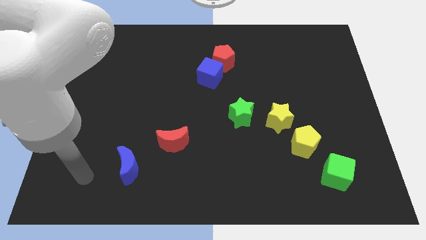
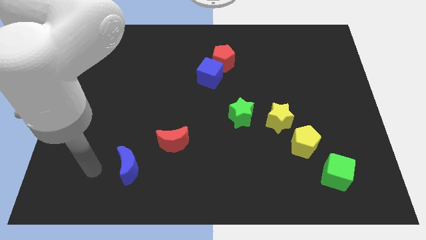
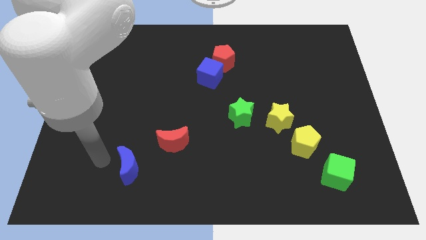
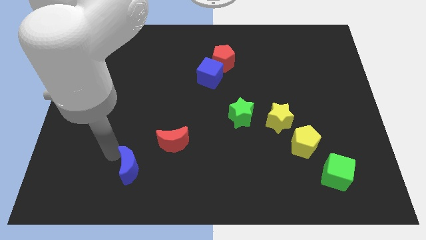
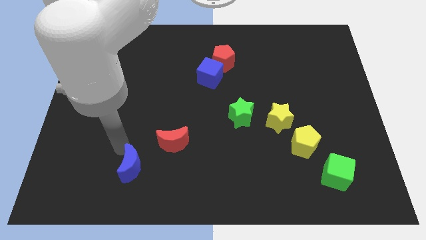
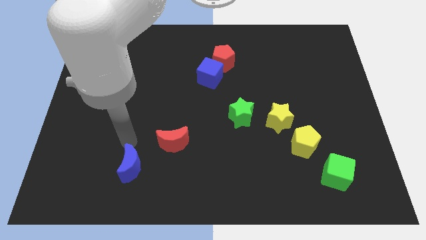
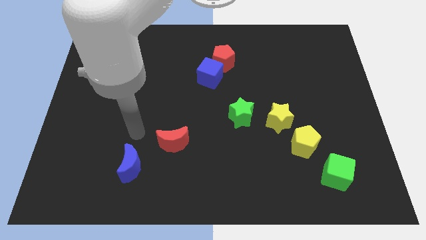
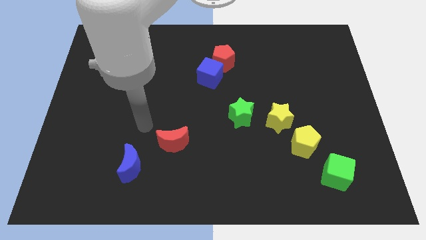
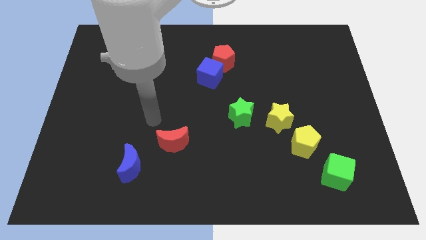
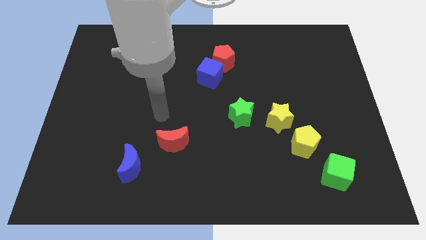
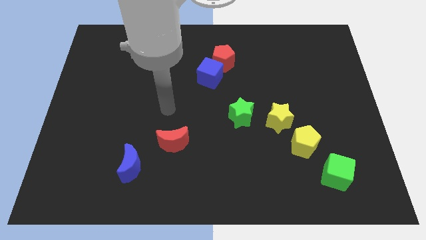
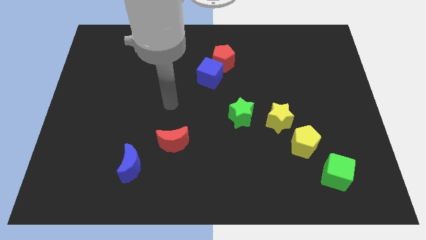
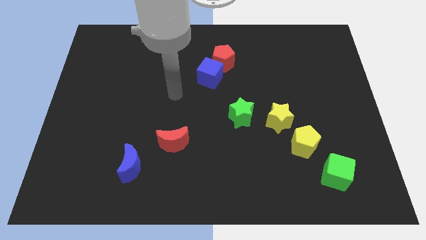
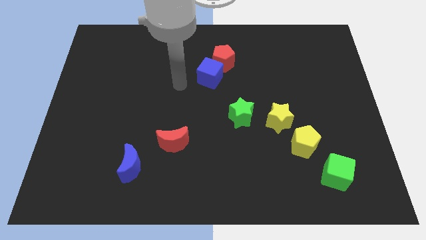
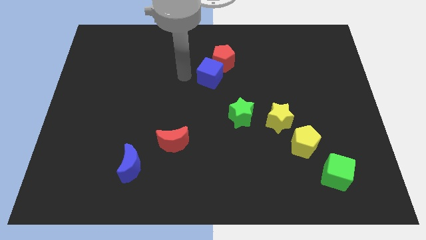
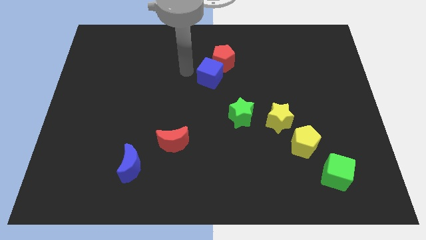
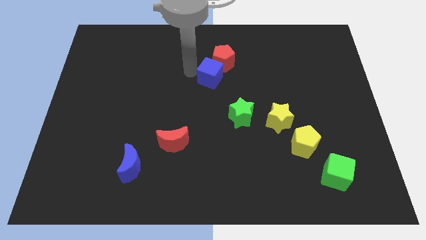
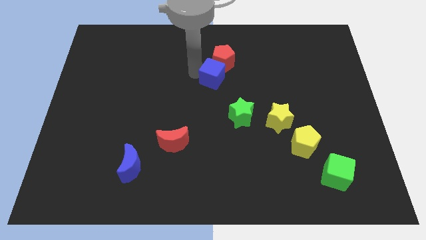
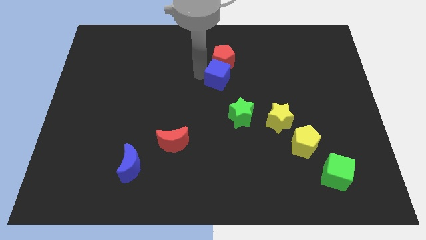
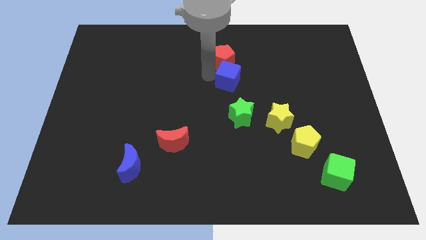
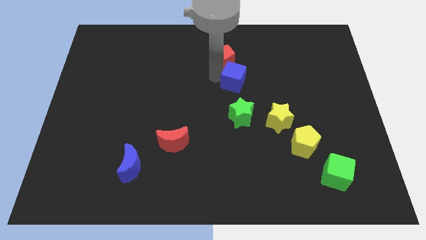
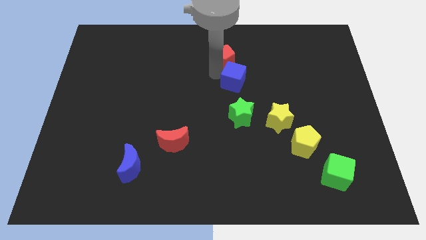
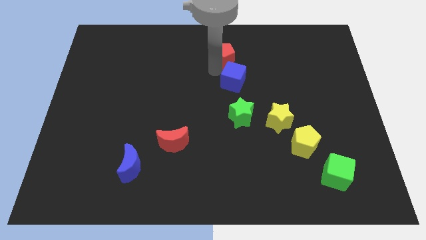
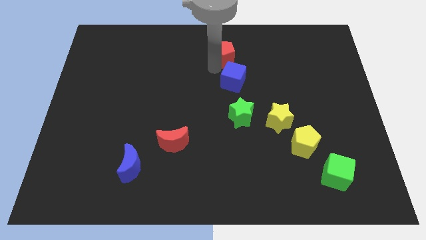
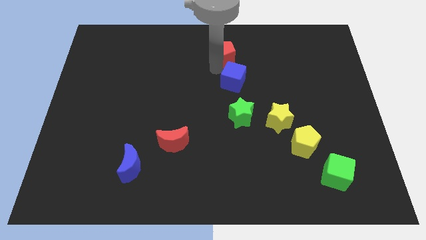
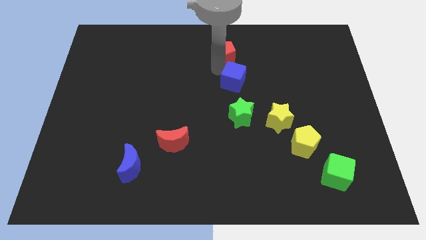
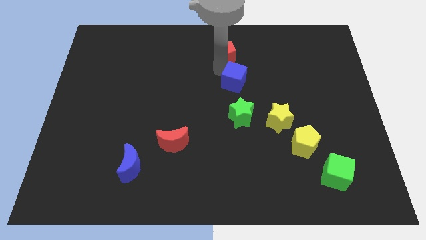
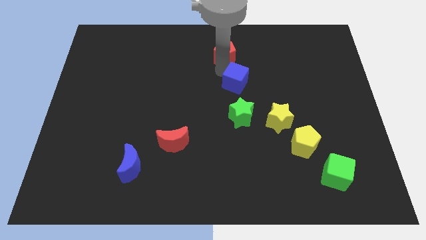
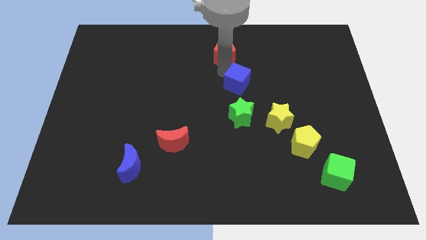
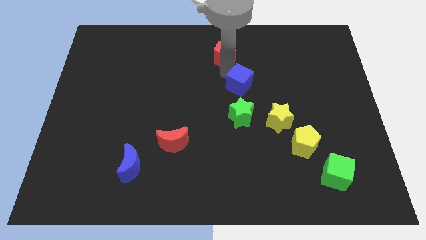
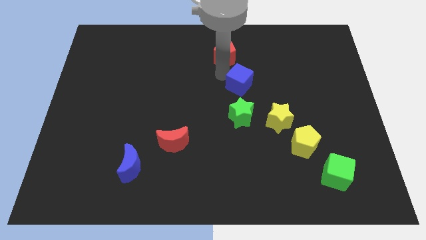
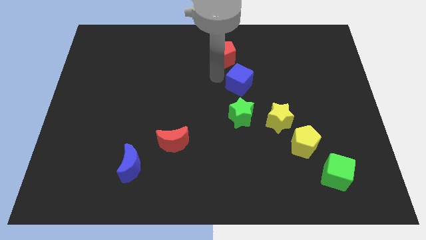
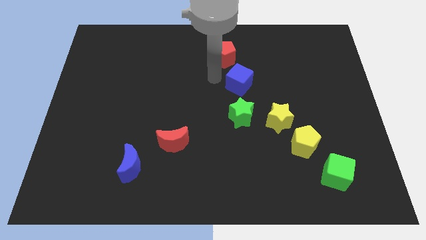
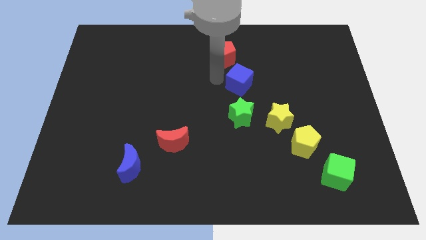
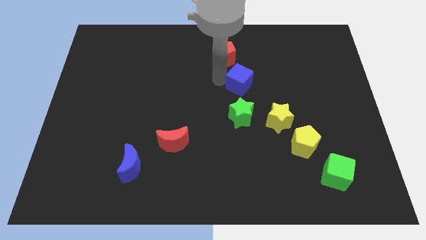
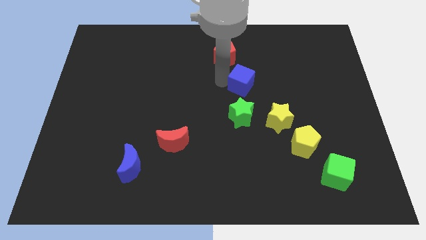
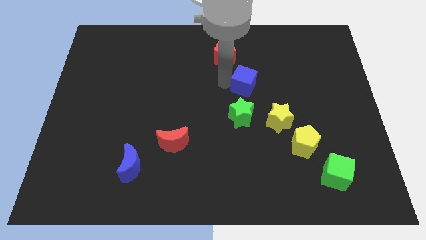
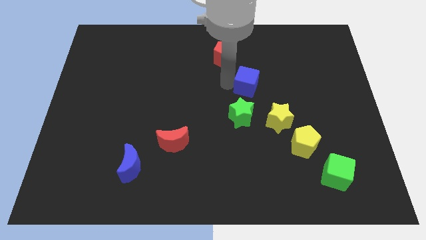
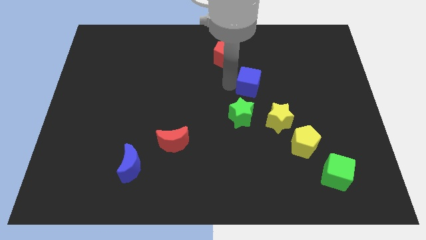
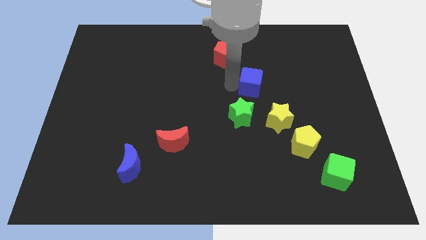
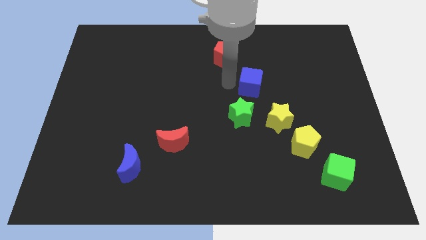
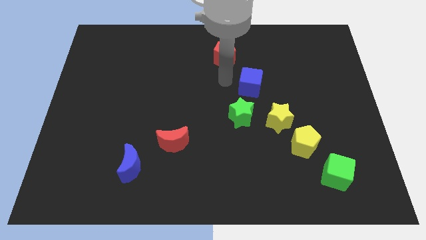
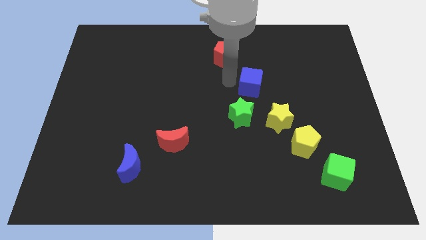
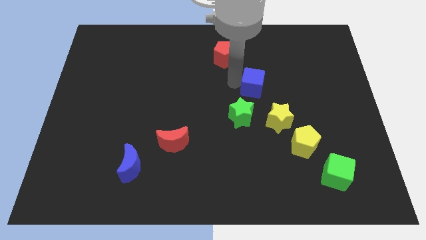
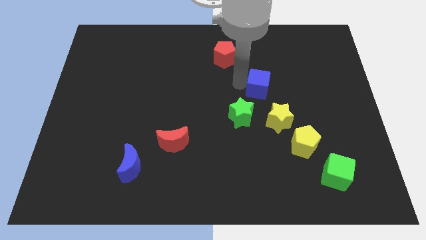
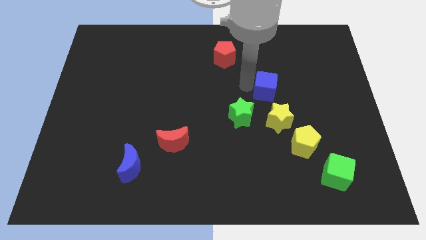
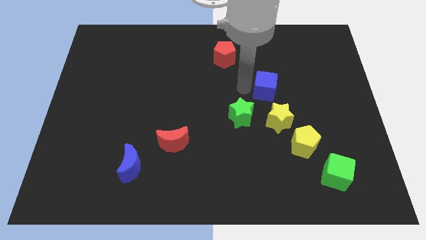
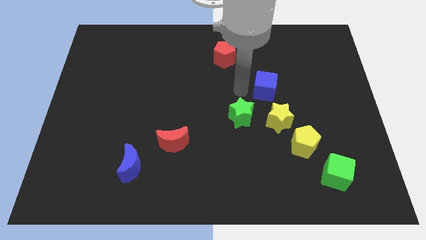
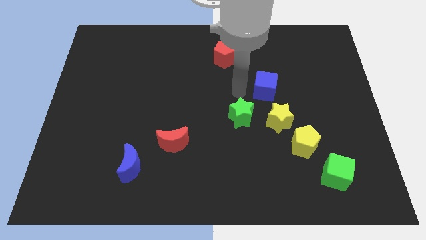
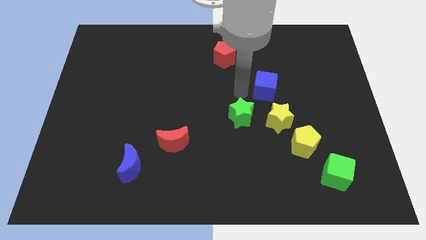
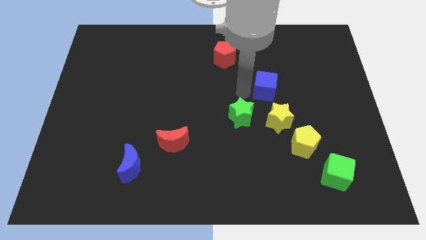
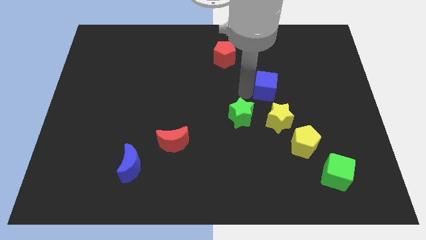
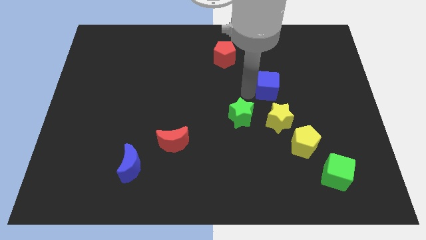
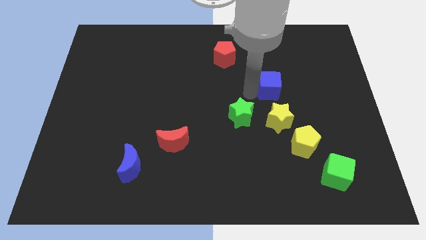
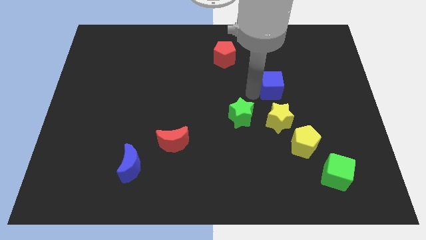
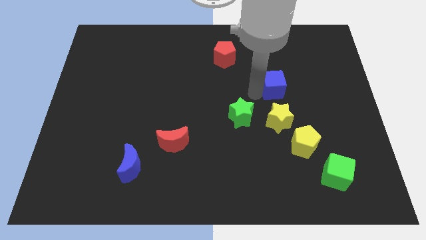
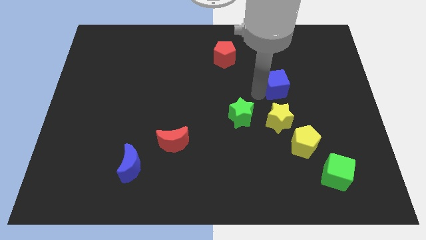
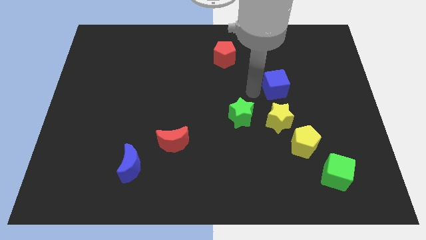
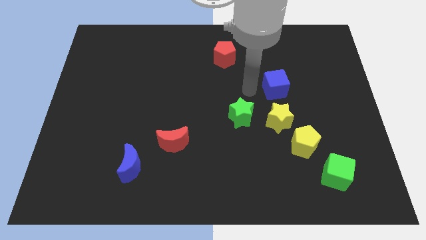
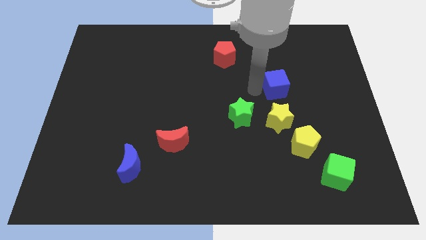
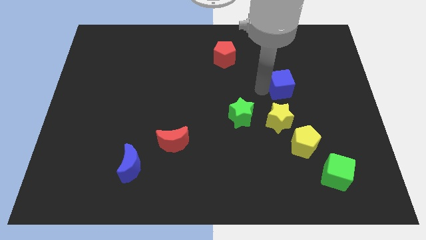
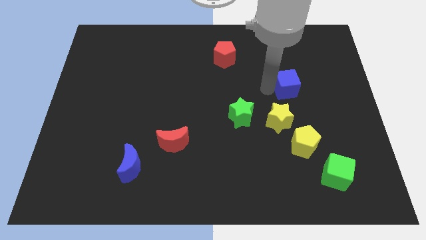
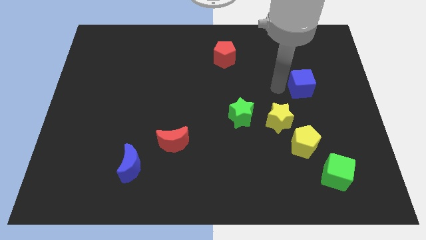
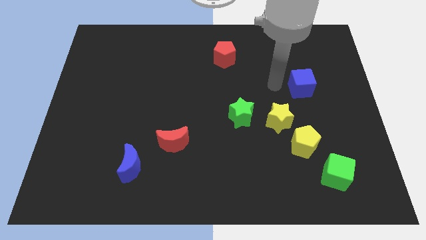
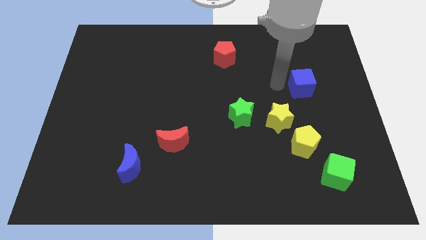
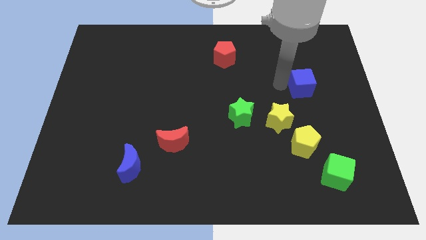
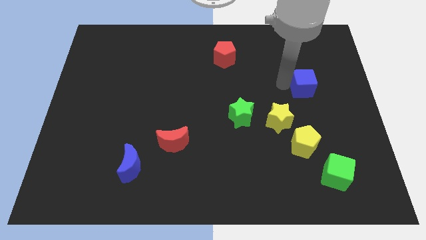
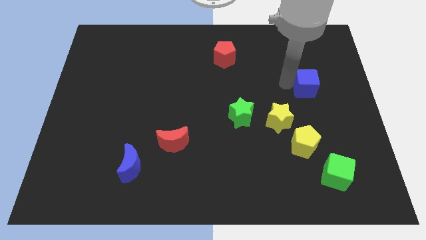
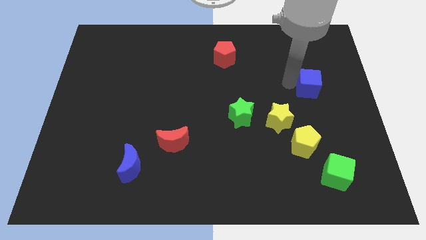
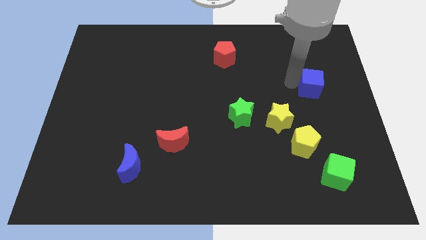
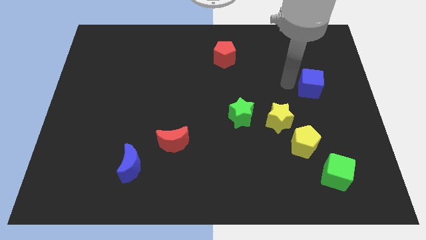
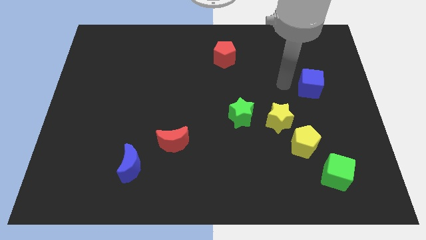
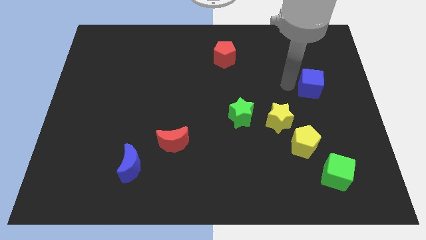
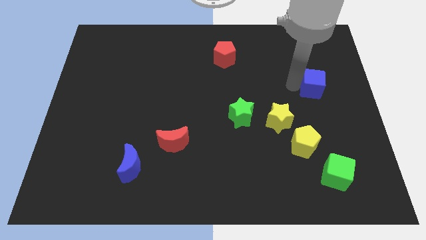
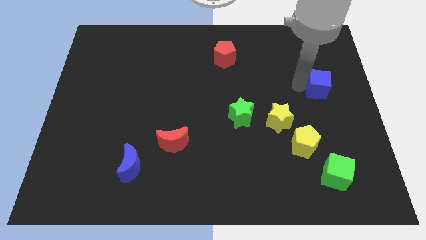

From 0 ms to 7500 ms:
put the blue cube to the center right
